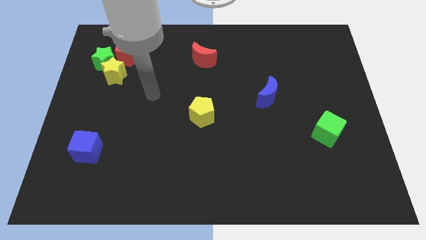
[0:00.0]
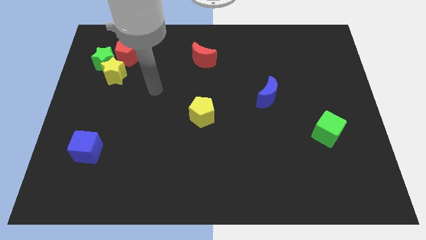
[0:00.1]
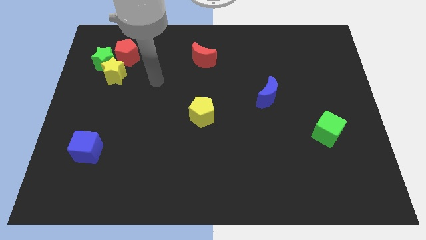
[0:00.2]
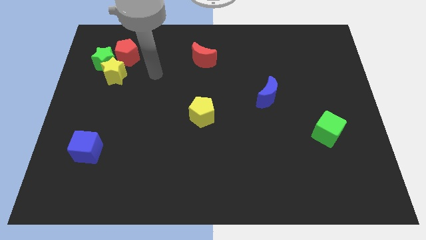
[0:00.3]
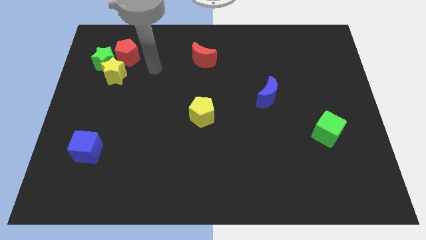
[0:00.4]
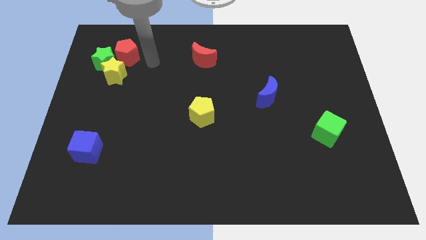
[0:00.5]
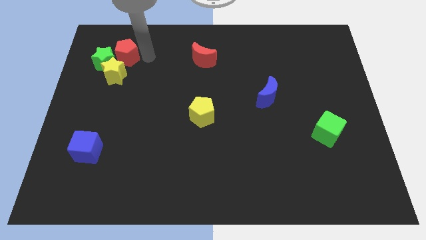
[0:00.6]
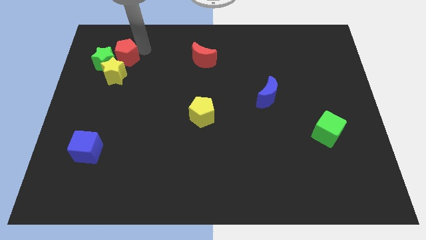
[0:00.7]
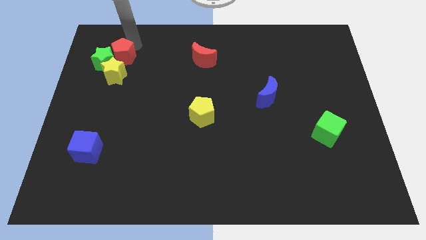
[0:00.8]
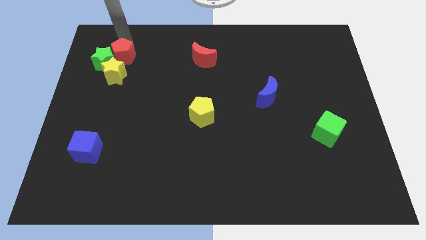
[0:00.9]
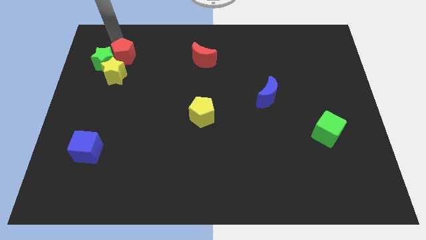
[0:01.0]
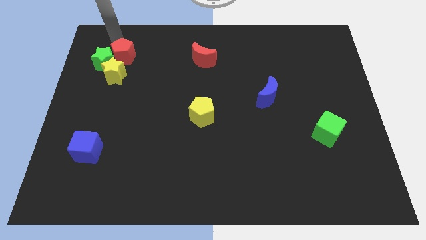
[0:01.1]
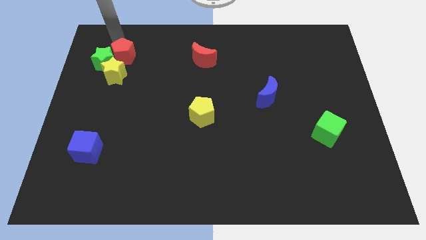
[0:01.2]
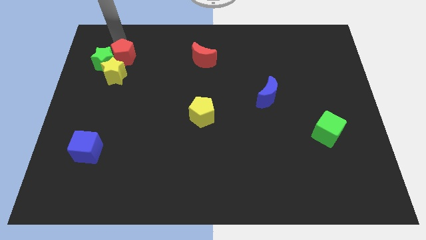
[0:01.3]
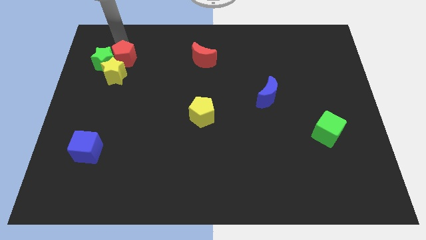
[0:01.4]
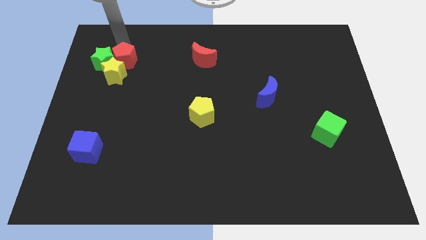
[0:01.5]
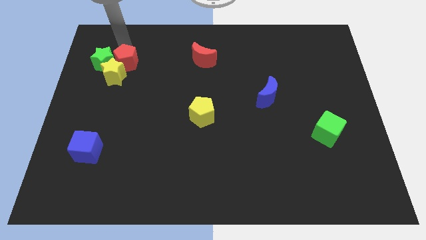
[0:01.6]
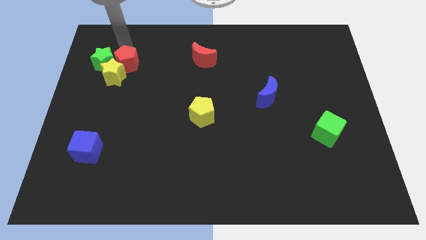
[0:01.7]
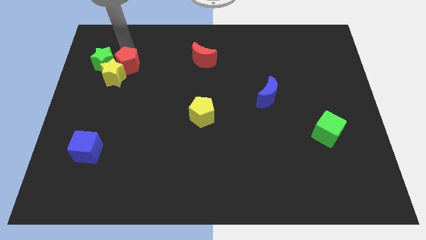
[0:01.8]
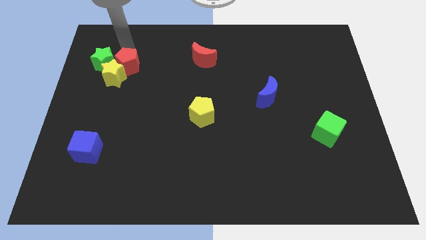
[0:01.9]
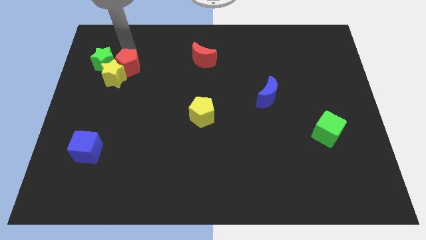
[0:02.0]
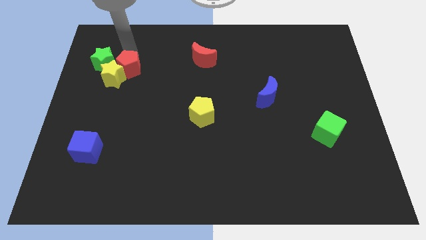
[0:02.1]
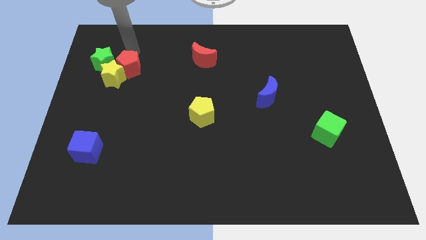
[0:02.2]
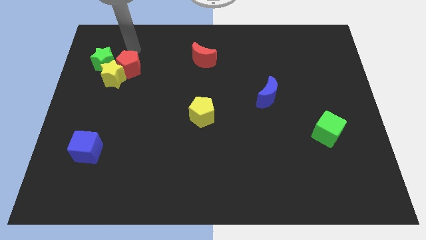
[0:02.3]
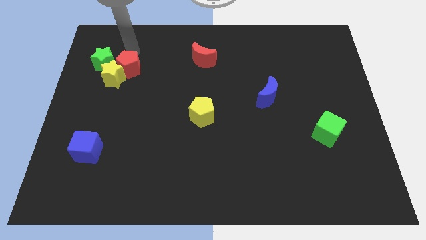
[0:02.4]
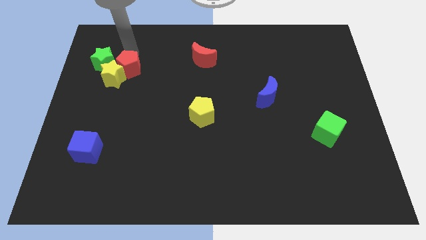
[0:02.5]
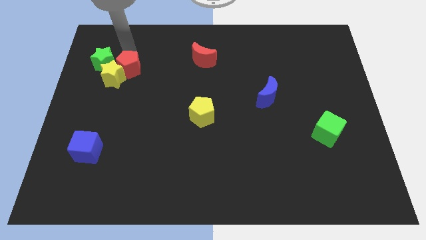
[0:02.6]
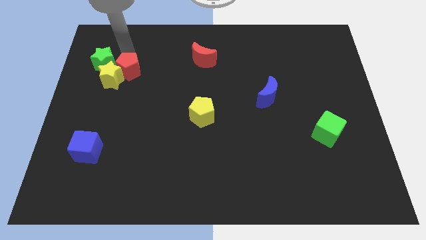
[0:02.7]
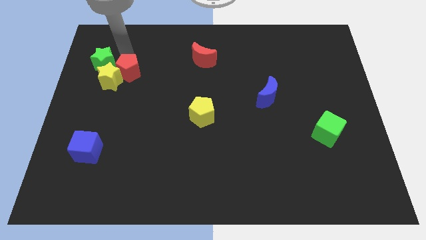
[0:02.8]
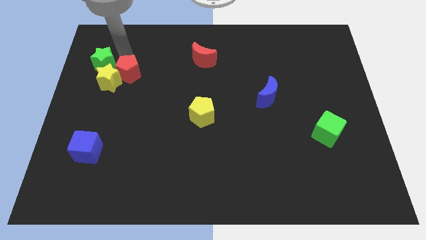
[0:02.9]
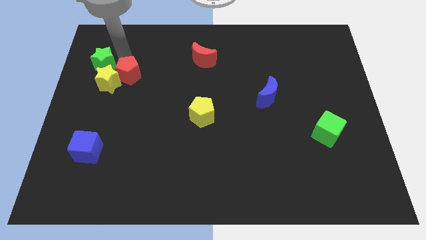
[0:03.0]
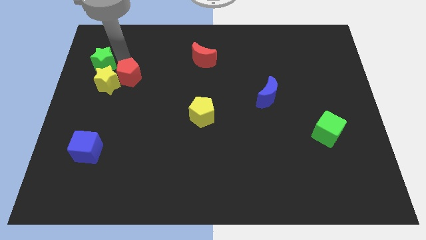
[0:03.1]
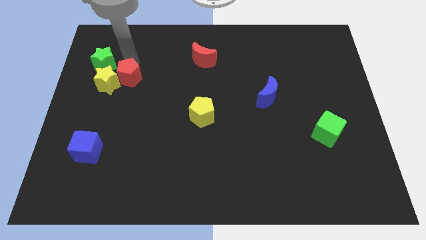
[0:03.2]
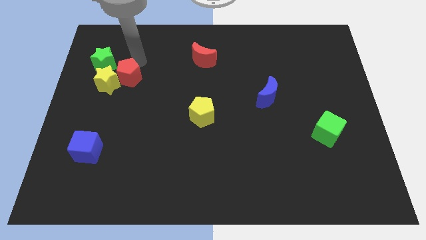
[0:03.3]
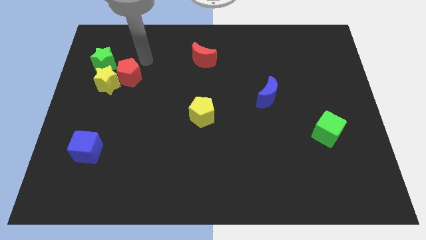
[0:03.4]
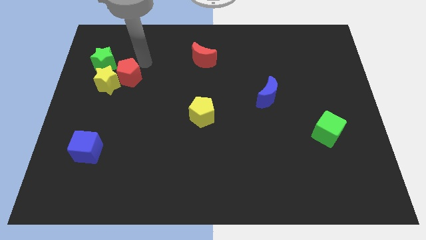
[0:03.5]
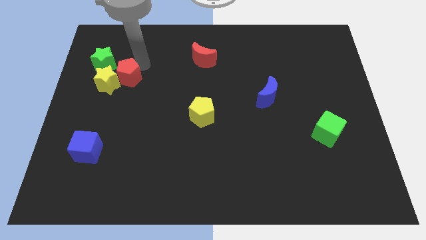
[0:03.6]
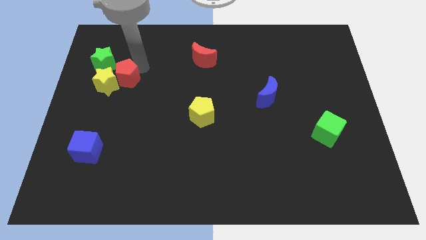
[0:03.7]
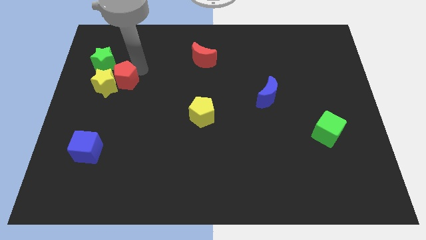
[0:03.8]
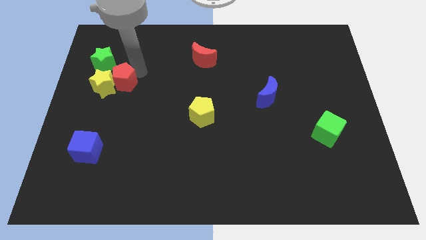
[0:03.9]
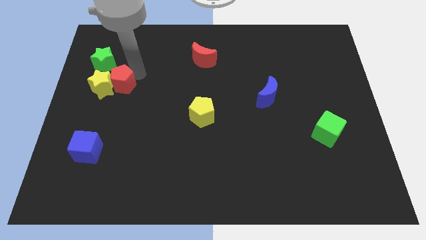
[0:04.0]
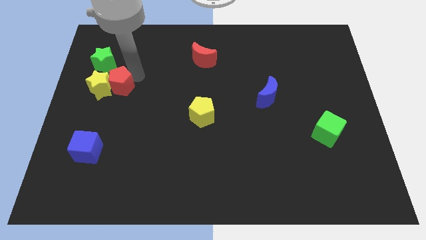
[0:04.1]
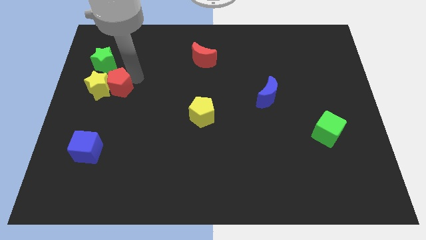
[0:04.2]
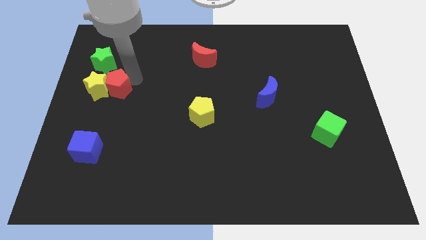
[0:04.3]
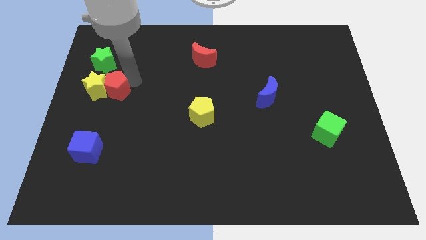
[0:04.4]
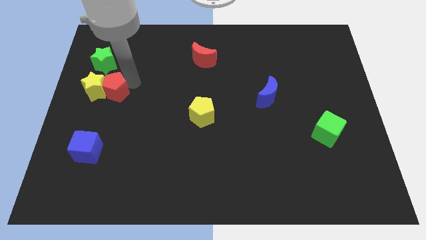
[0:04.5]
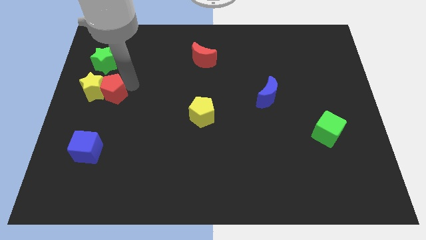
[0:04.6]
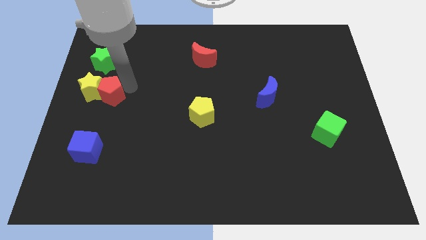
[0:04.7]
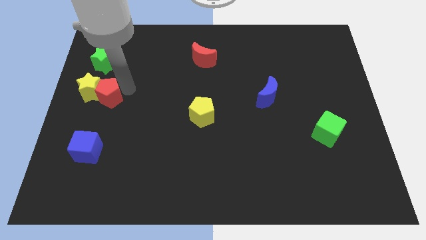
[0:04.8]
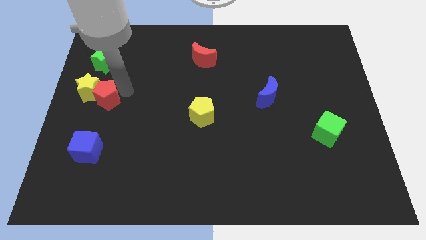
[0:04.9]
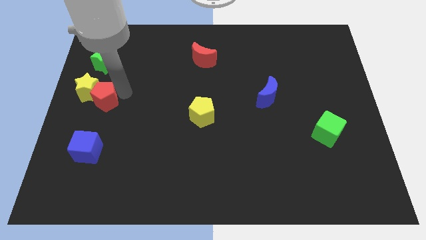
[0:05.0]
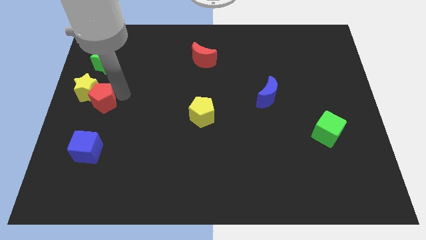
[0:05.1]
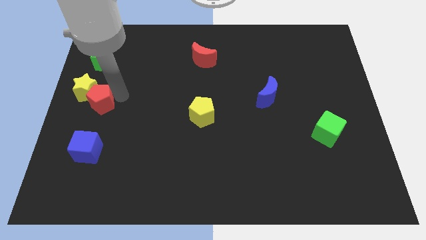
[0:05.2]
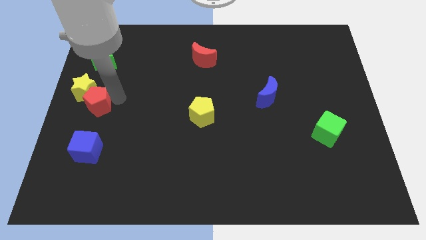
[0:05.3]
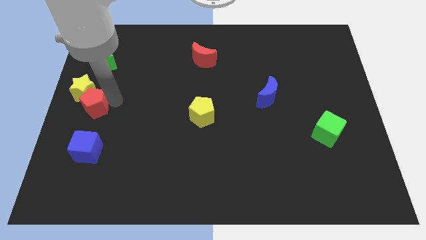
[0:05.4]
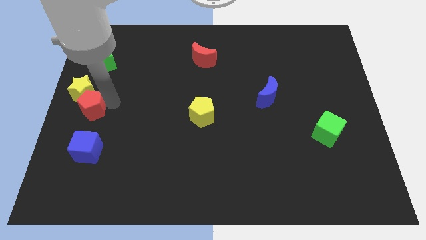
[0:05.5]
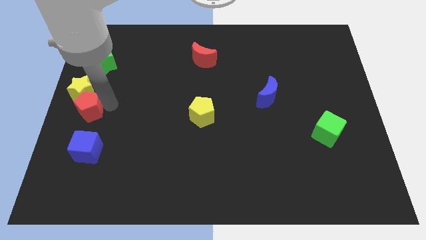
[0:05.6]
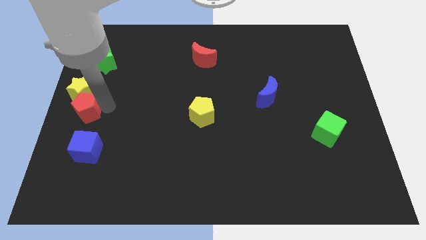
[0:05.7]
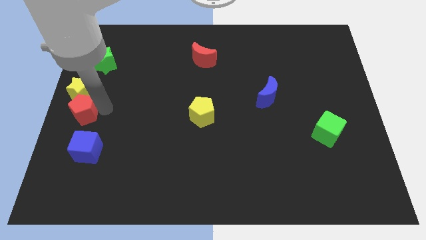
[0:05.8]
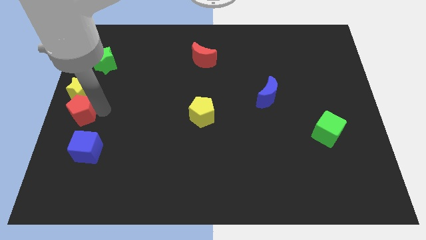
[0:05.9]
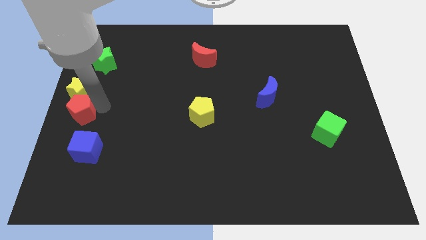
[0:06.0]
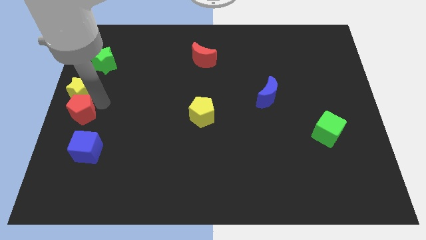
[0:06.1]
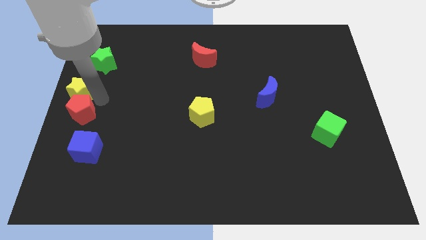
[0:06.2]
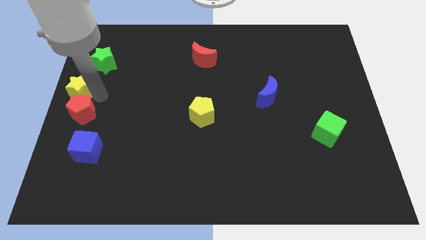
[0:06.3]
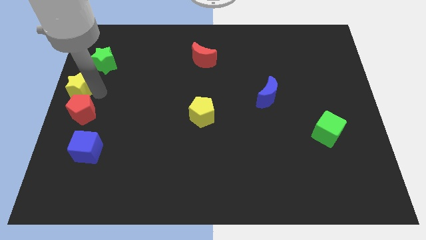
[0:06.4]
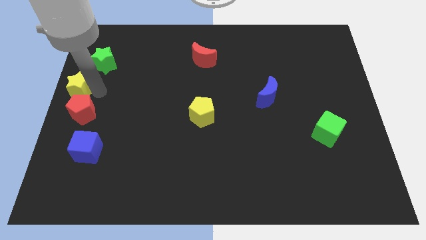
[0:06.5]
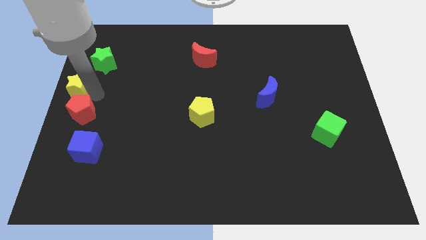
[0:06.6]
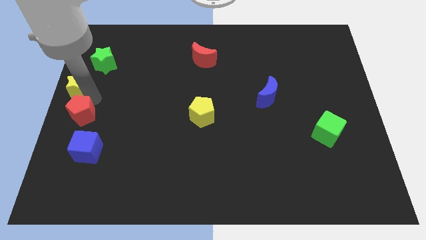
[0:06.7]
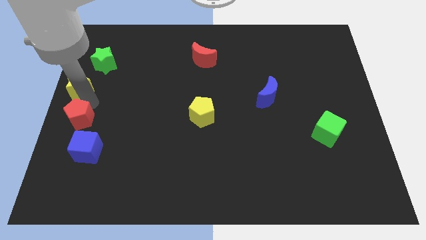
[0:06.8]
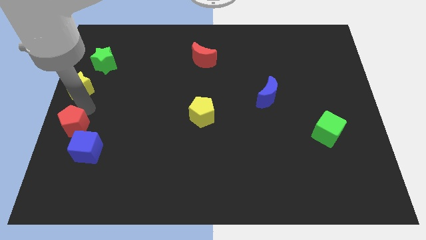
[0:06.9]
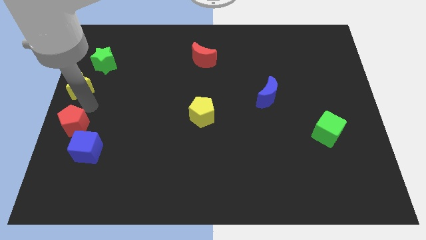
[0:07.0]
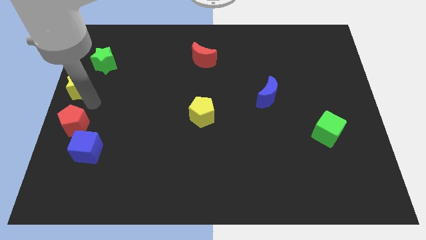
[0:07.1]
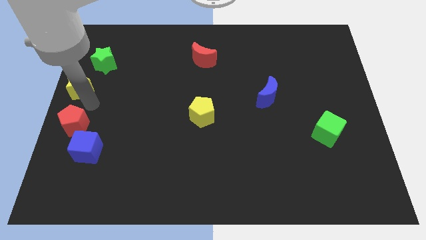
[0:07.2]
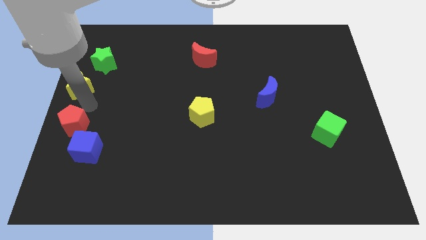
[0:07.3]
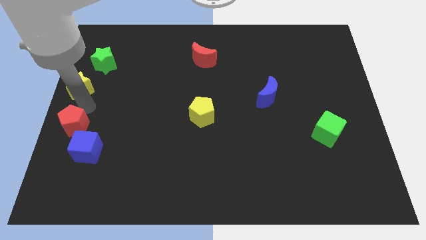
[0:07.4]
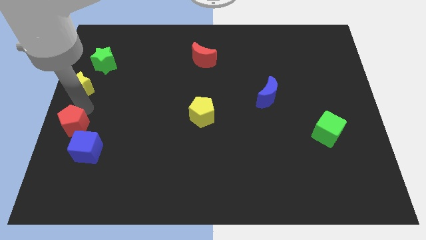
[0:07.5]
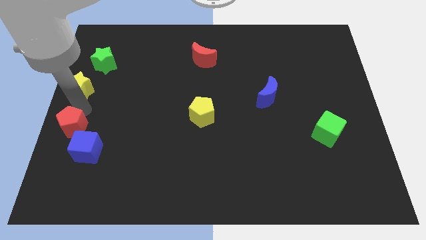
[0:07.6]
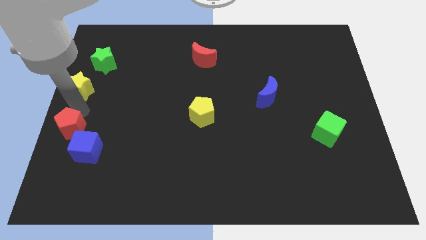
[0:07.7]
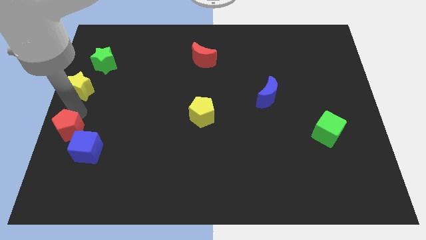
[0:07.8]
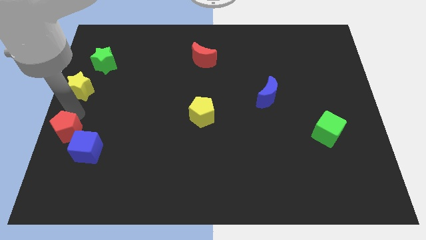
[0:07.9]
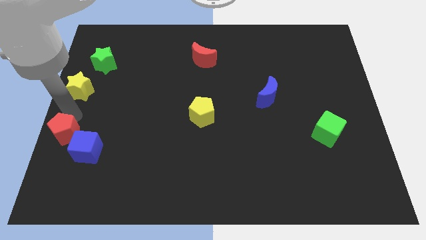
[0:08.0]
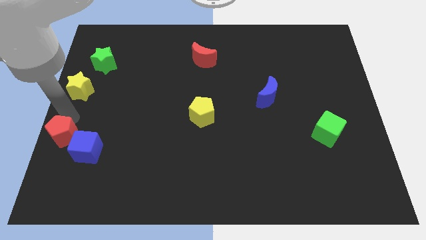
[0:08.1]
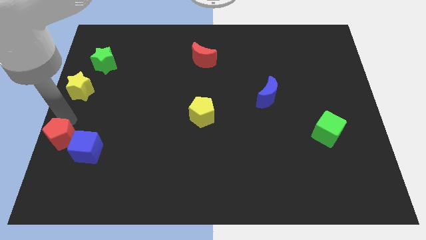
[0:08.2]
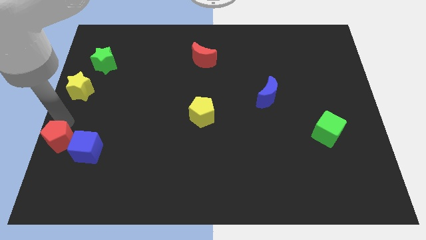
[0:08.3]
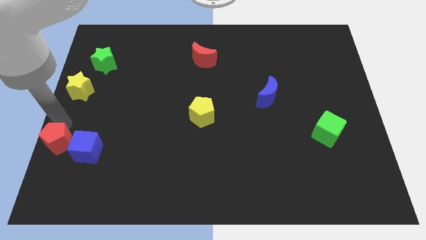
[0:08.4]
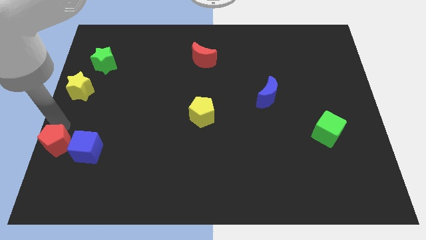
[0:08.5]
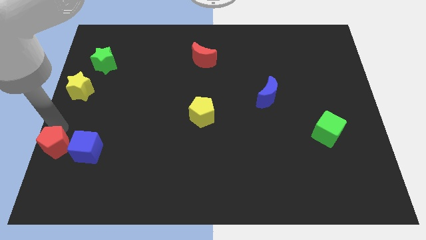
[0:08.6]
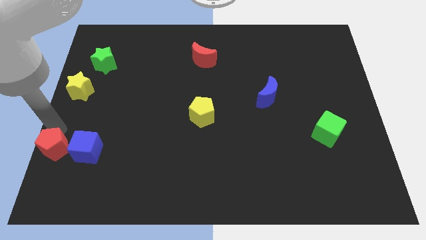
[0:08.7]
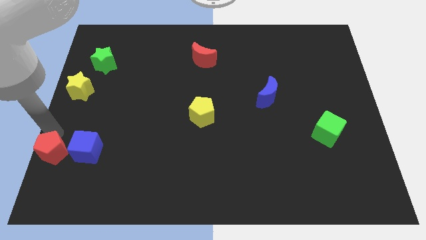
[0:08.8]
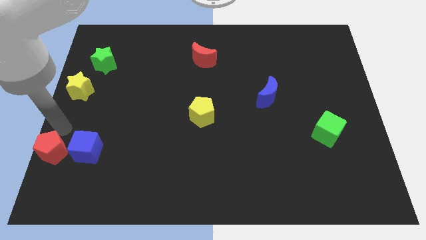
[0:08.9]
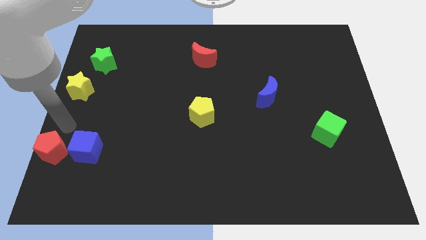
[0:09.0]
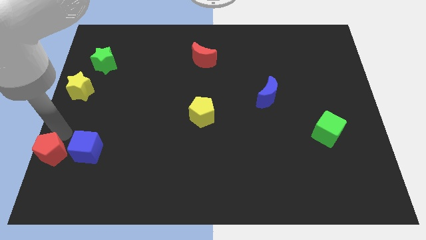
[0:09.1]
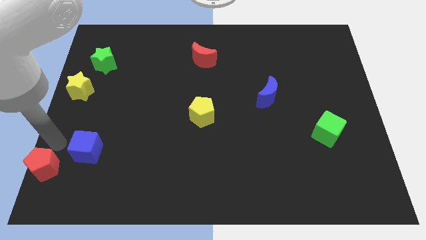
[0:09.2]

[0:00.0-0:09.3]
move the red pentagon to the bottom left corner
